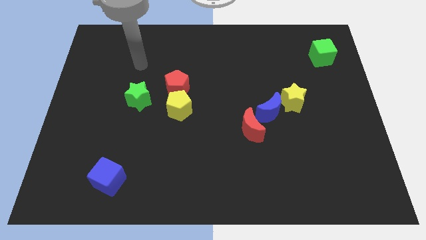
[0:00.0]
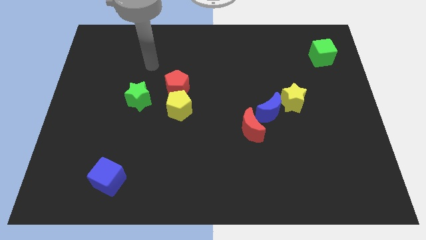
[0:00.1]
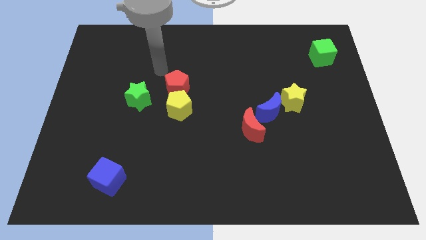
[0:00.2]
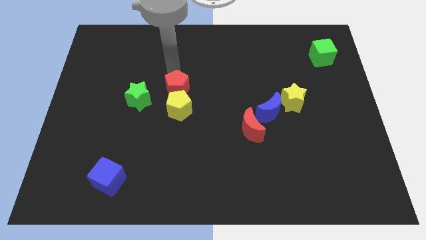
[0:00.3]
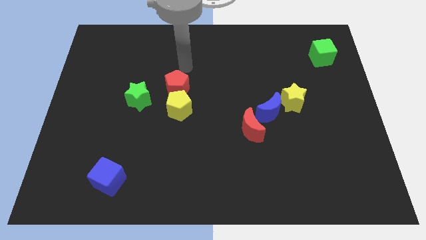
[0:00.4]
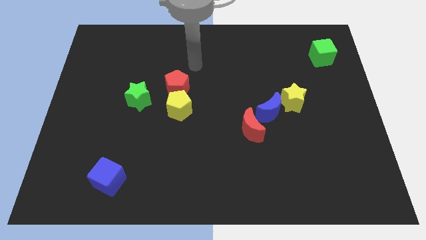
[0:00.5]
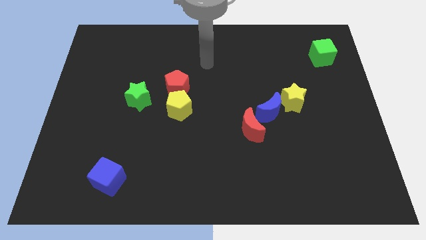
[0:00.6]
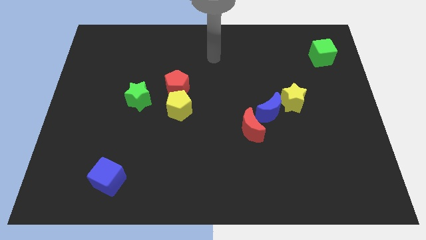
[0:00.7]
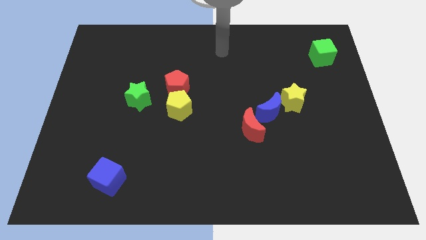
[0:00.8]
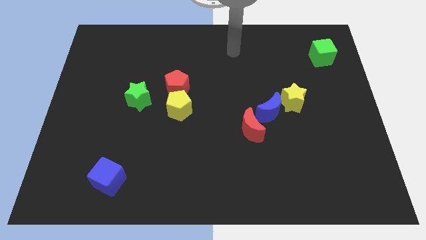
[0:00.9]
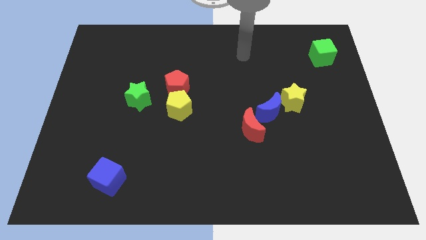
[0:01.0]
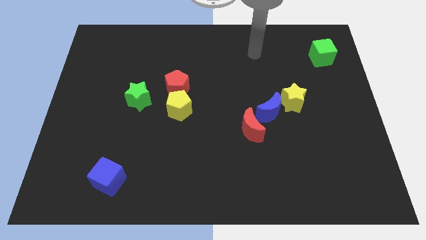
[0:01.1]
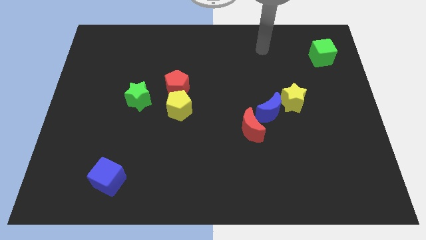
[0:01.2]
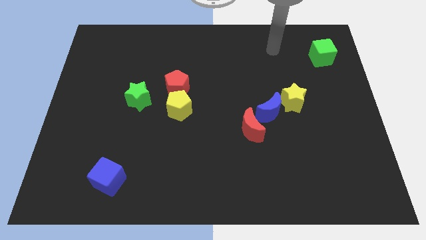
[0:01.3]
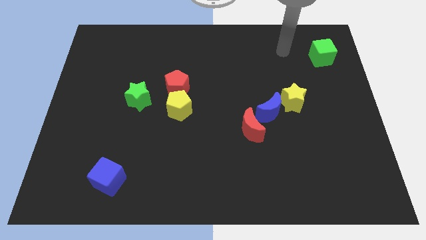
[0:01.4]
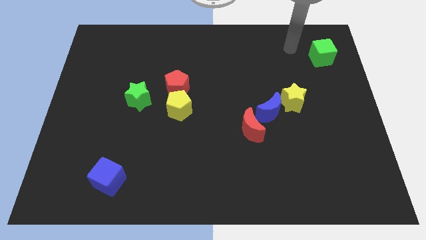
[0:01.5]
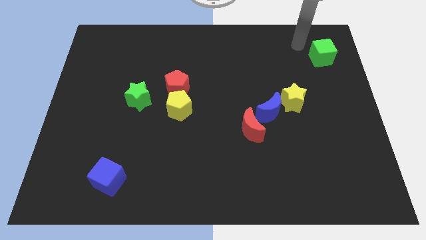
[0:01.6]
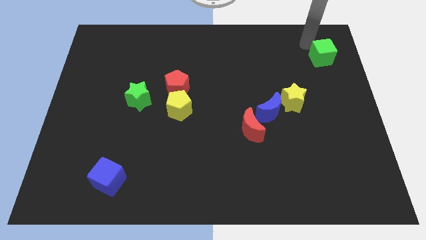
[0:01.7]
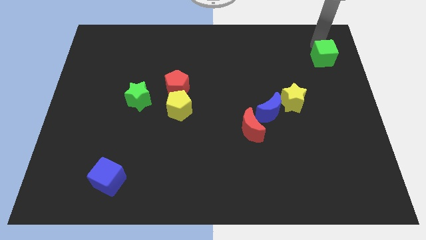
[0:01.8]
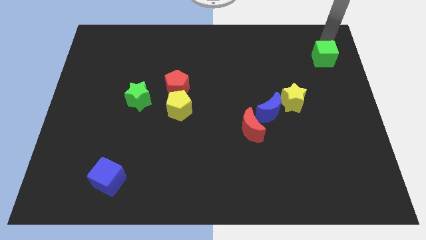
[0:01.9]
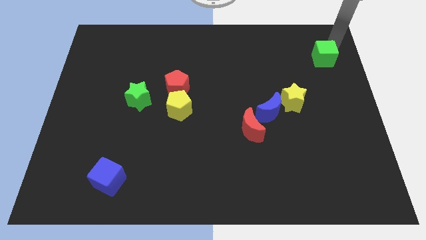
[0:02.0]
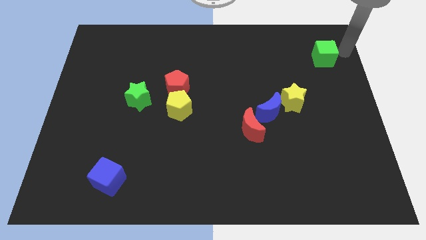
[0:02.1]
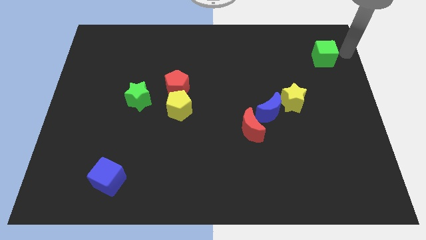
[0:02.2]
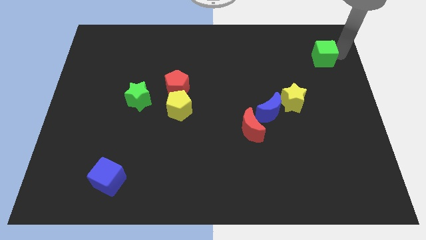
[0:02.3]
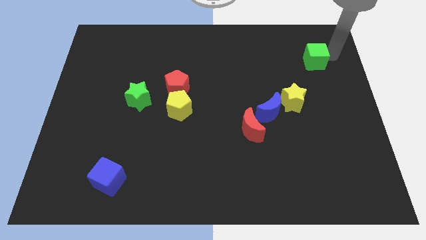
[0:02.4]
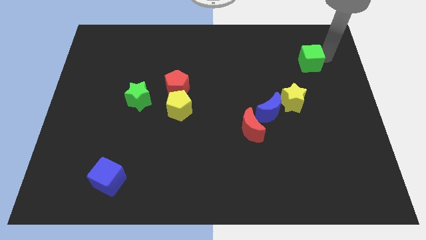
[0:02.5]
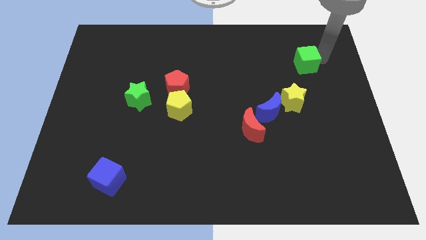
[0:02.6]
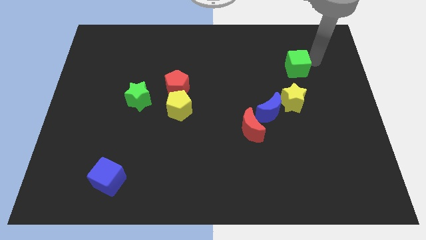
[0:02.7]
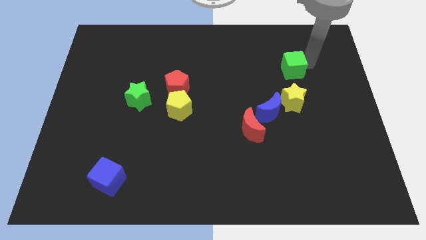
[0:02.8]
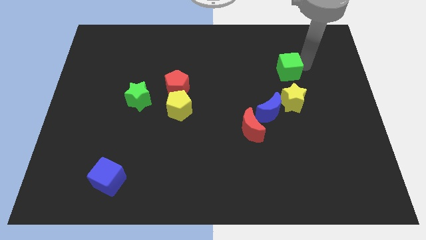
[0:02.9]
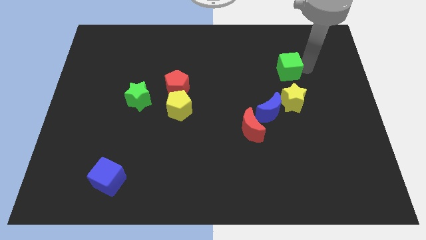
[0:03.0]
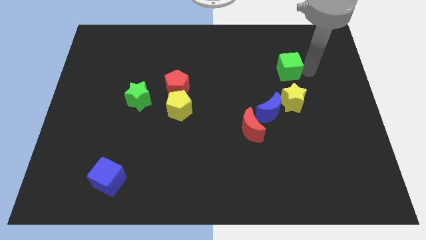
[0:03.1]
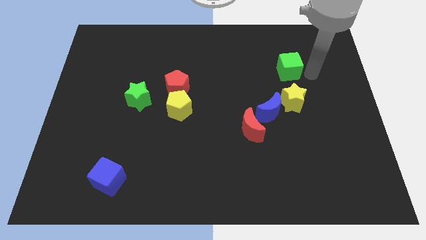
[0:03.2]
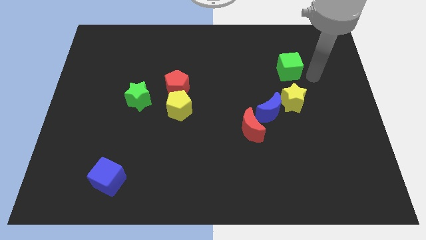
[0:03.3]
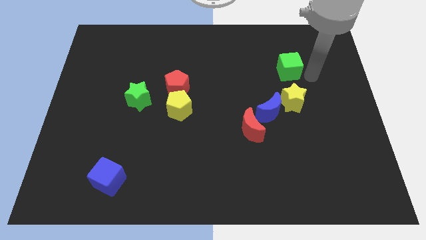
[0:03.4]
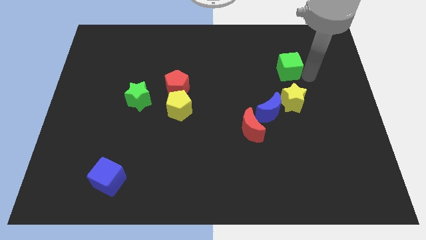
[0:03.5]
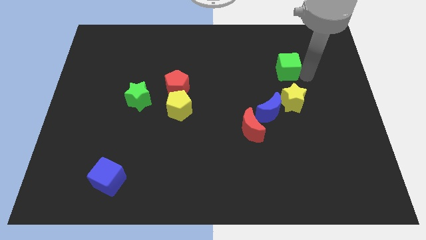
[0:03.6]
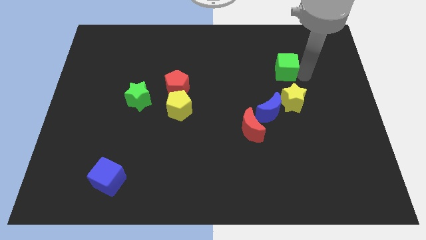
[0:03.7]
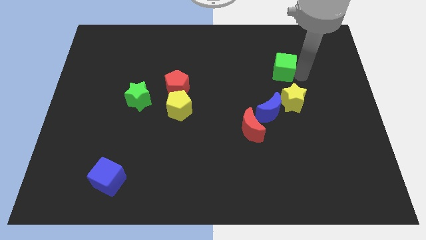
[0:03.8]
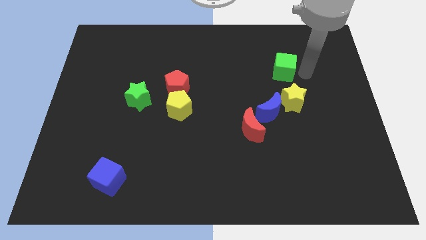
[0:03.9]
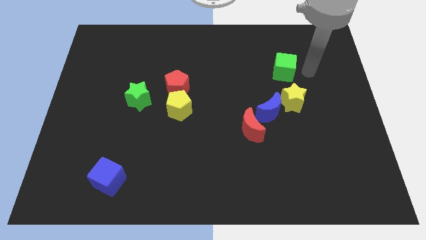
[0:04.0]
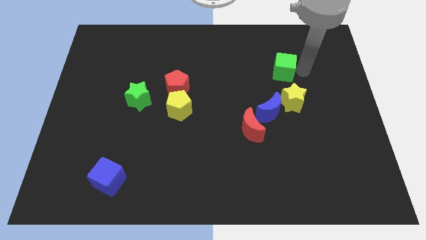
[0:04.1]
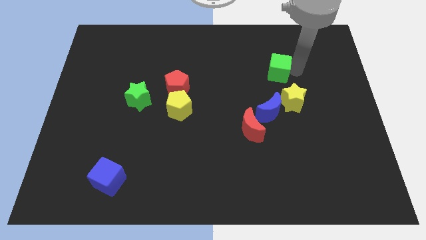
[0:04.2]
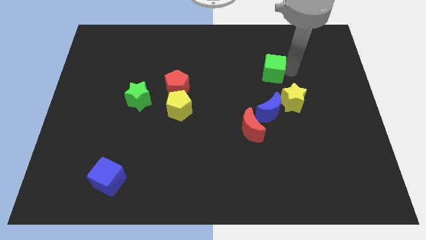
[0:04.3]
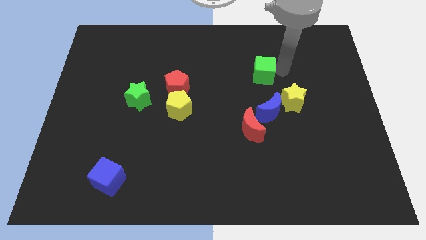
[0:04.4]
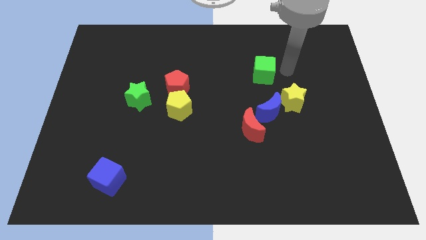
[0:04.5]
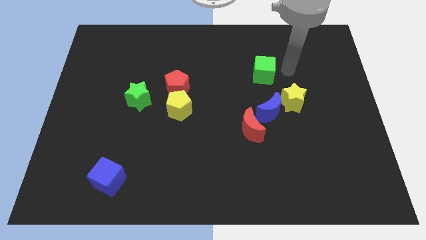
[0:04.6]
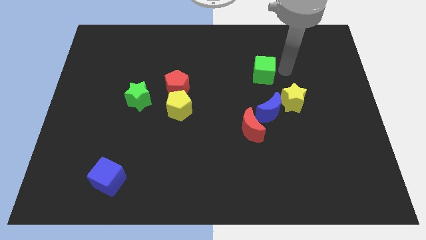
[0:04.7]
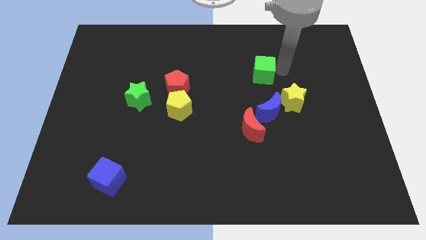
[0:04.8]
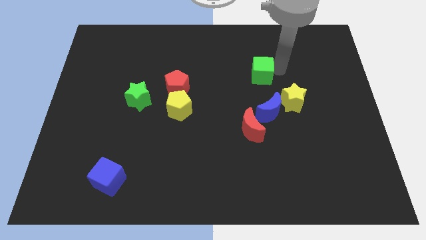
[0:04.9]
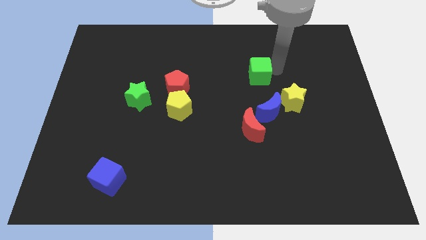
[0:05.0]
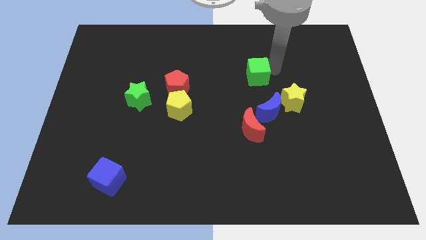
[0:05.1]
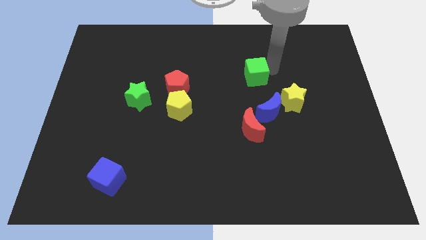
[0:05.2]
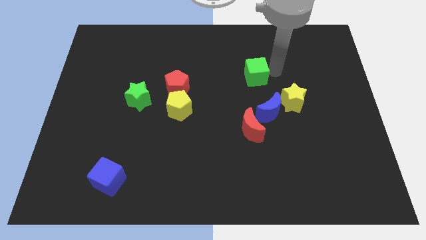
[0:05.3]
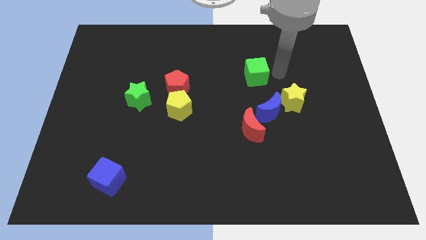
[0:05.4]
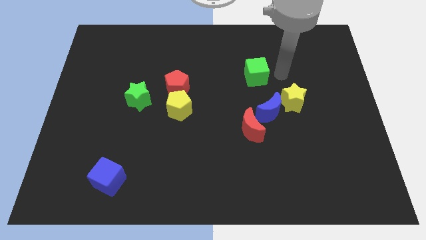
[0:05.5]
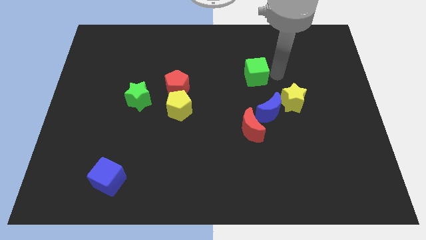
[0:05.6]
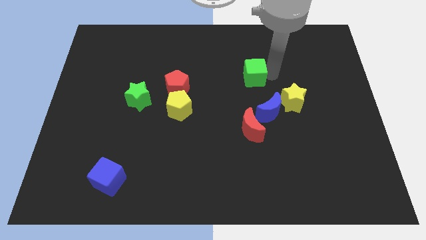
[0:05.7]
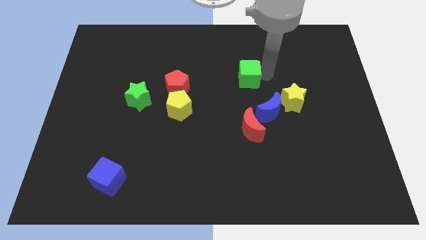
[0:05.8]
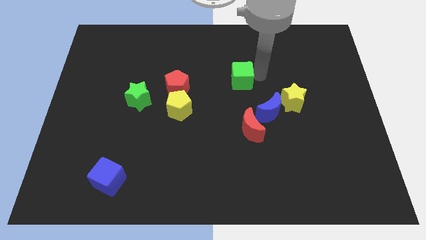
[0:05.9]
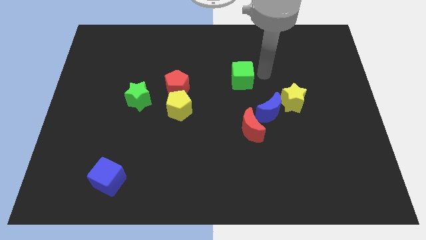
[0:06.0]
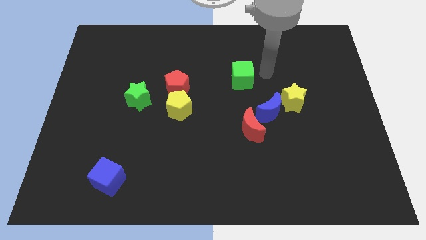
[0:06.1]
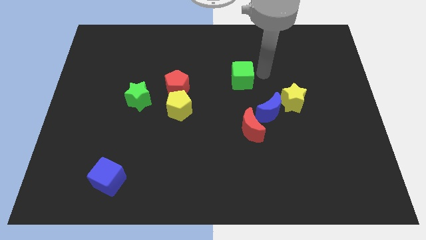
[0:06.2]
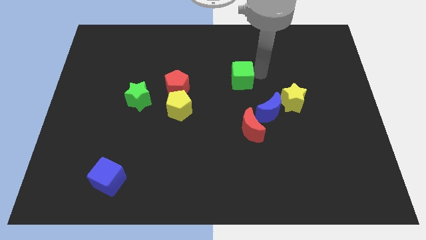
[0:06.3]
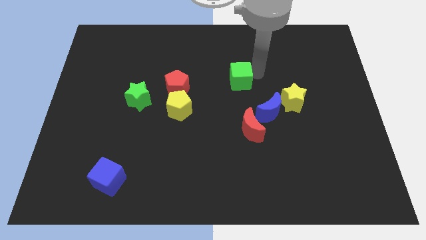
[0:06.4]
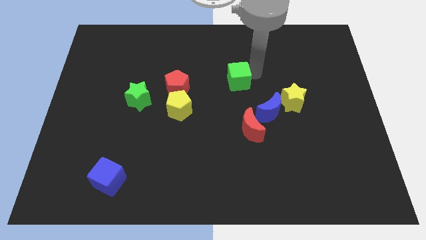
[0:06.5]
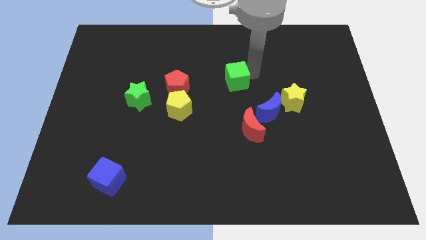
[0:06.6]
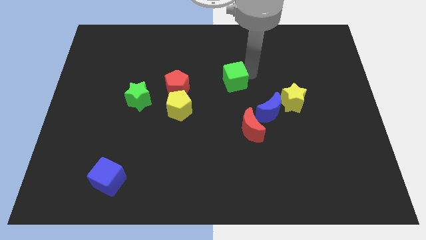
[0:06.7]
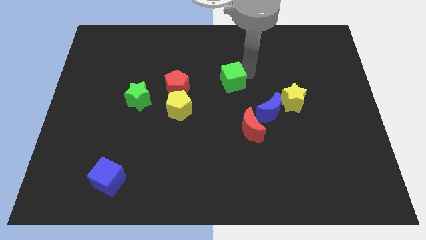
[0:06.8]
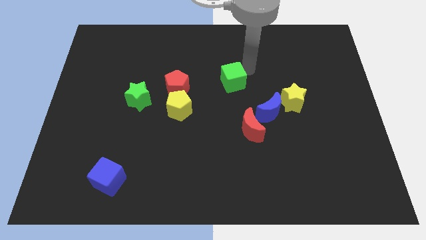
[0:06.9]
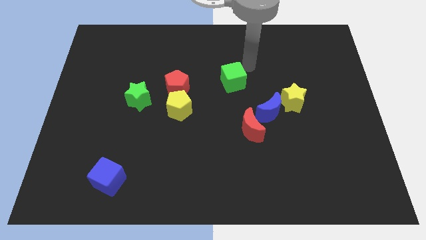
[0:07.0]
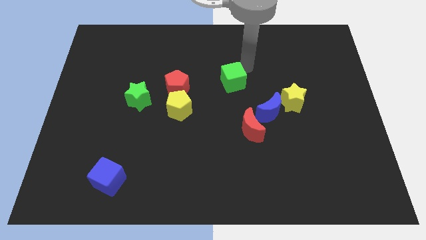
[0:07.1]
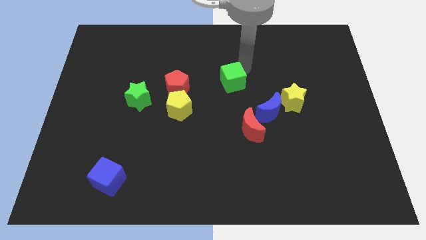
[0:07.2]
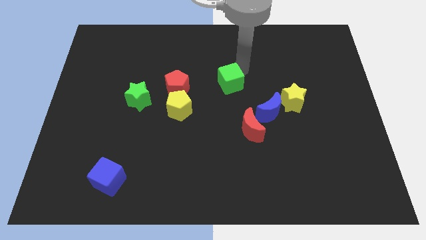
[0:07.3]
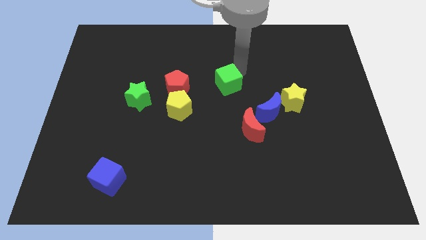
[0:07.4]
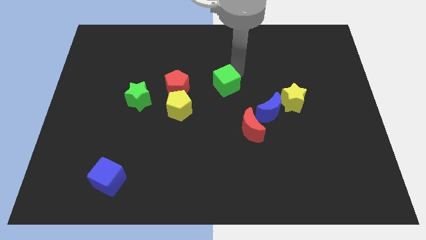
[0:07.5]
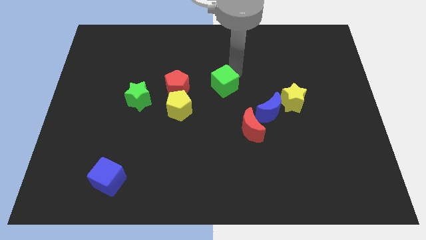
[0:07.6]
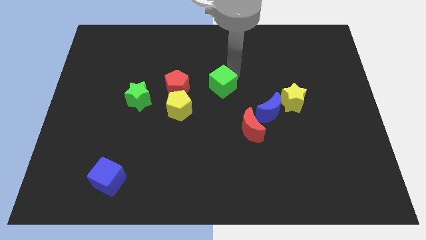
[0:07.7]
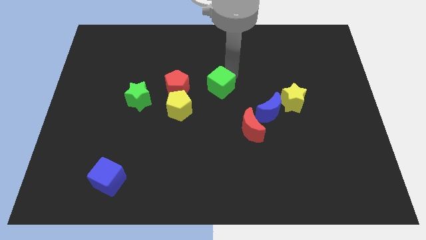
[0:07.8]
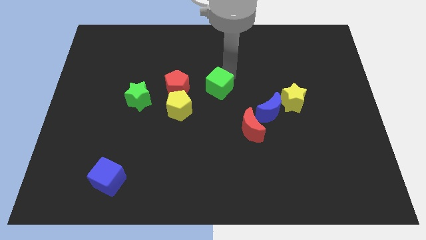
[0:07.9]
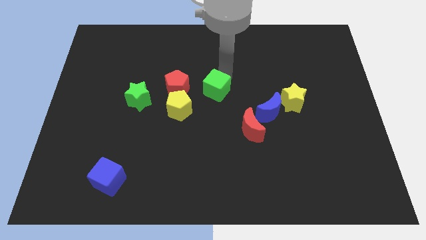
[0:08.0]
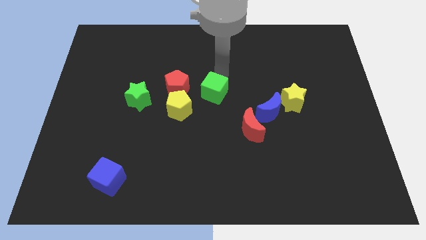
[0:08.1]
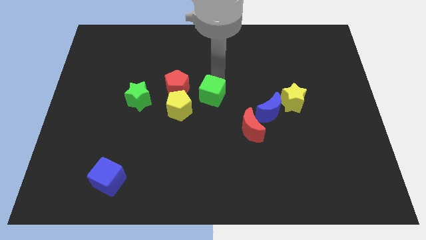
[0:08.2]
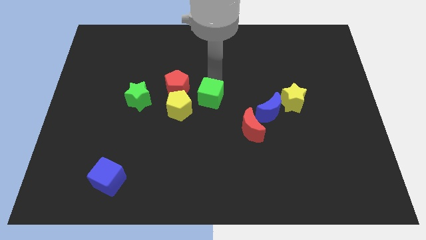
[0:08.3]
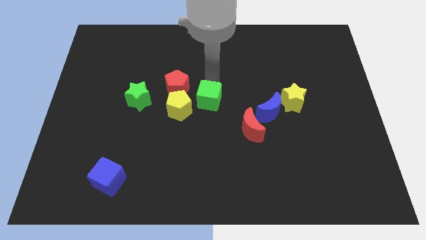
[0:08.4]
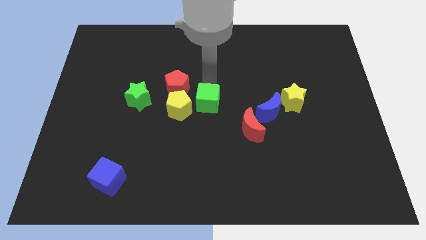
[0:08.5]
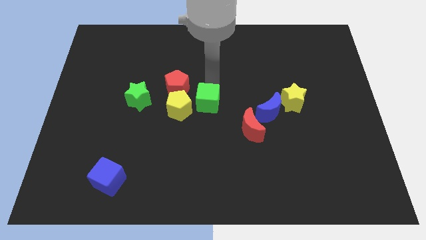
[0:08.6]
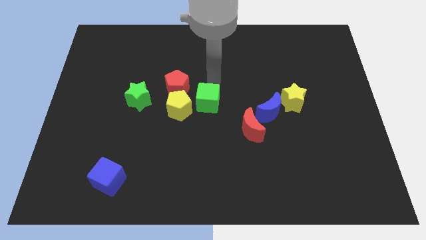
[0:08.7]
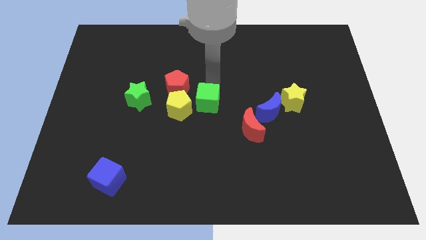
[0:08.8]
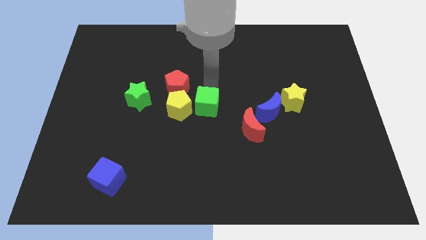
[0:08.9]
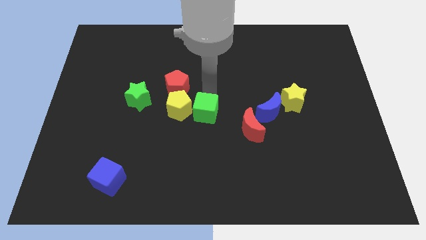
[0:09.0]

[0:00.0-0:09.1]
slide the green cube to the bottom right of the yellow pentagon
